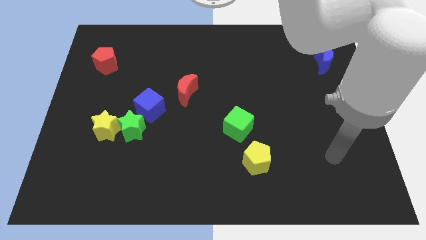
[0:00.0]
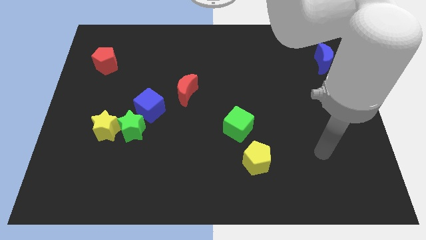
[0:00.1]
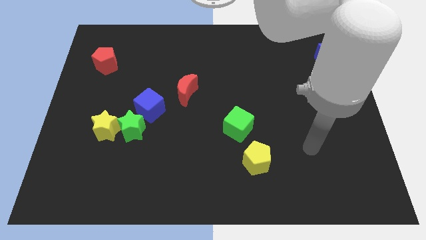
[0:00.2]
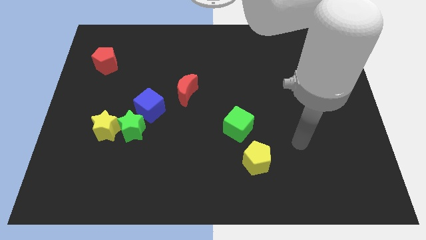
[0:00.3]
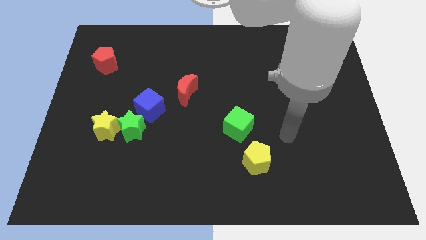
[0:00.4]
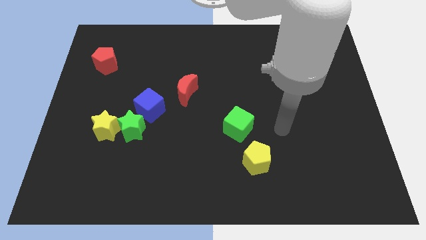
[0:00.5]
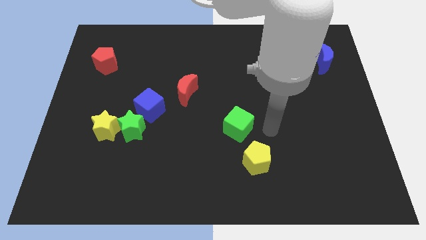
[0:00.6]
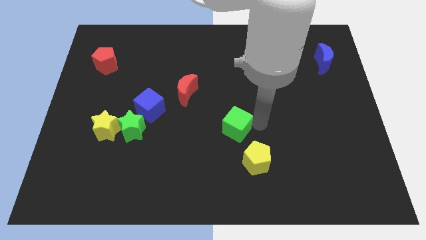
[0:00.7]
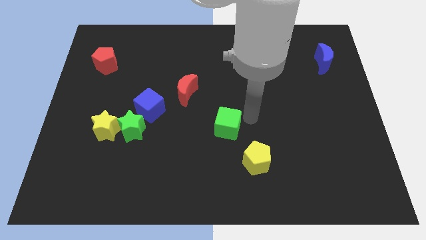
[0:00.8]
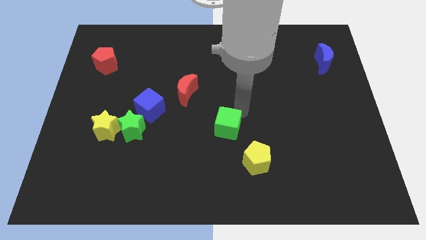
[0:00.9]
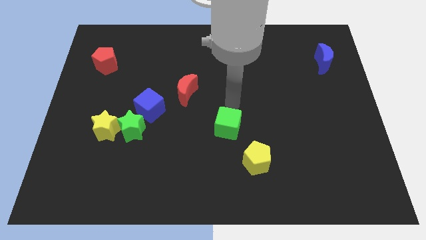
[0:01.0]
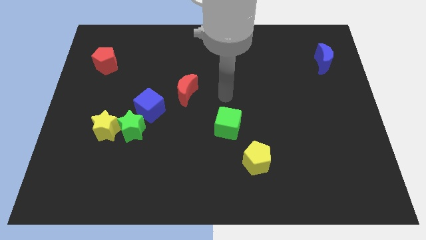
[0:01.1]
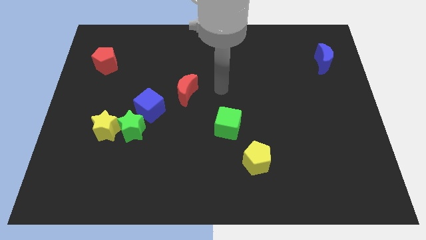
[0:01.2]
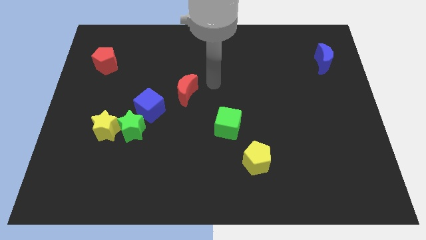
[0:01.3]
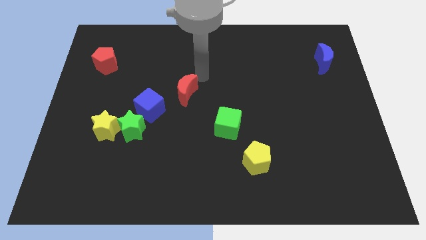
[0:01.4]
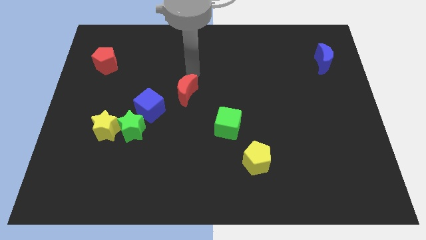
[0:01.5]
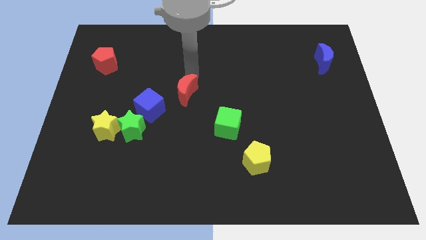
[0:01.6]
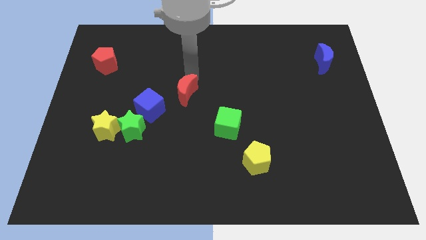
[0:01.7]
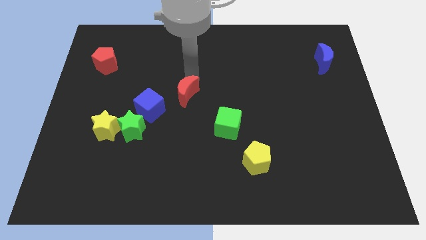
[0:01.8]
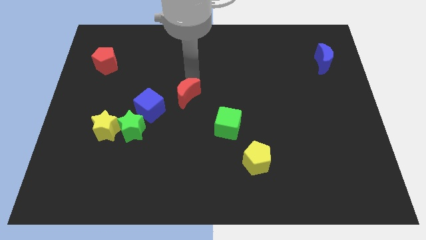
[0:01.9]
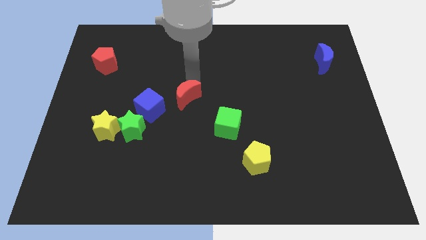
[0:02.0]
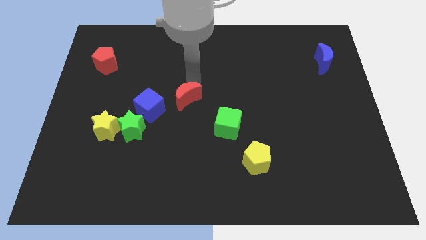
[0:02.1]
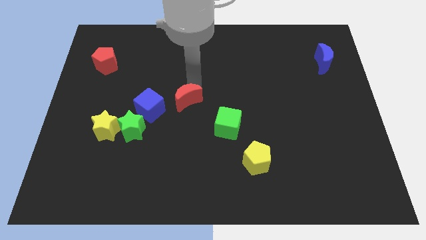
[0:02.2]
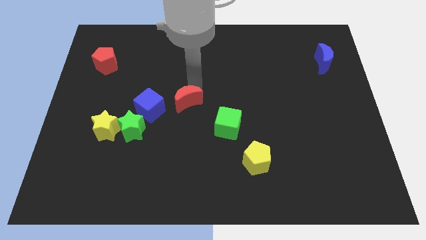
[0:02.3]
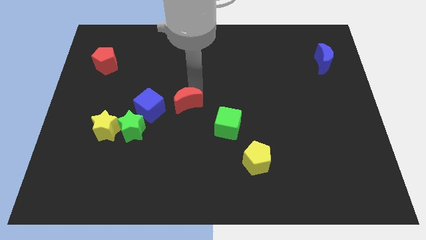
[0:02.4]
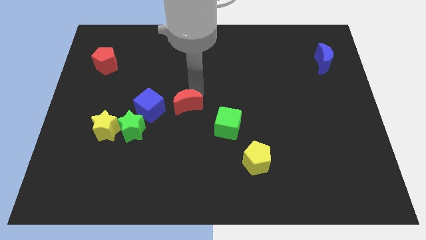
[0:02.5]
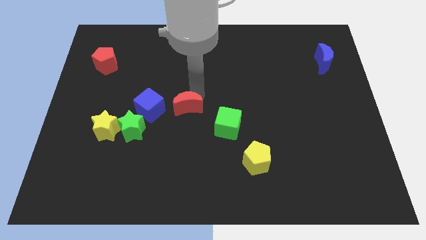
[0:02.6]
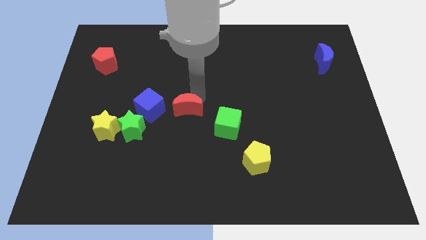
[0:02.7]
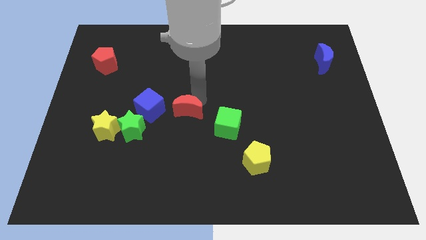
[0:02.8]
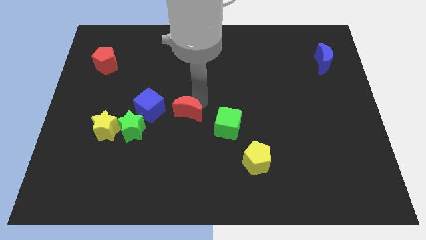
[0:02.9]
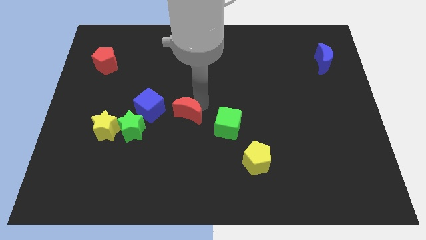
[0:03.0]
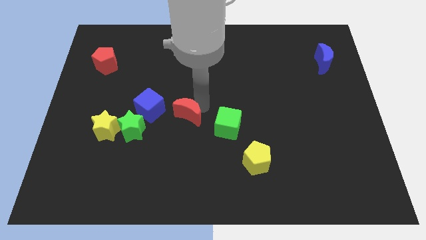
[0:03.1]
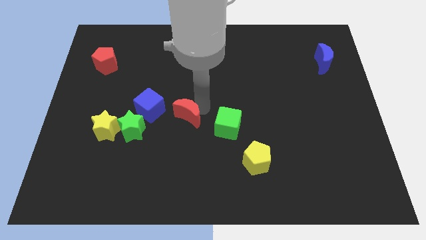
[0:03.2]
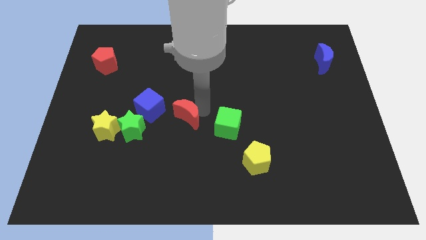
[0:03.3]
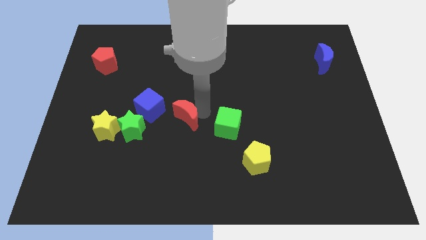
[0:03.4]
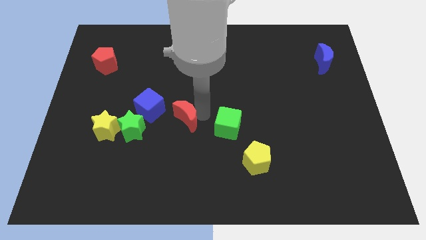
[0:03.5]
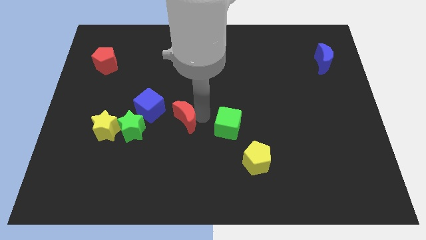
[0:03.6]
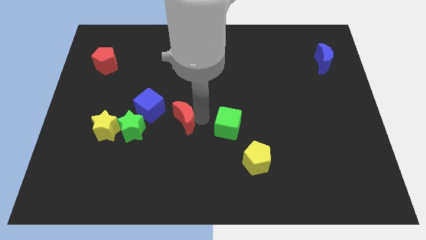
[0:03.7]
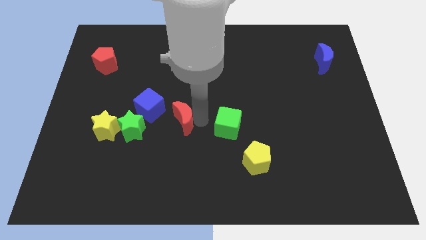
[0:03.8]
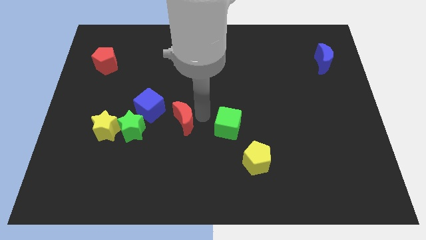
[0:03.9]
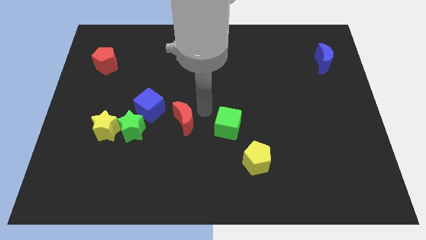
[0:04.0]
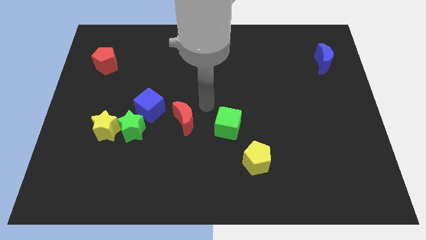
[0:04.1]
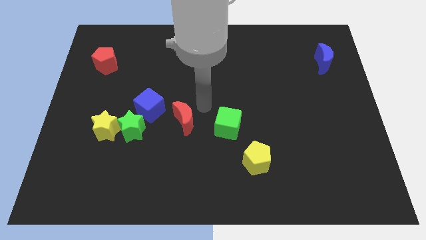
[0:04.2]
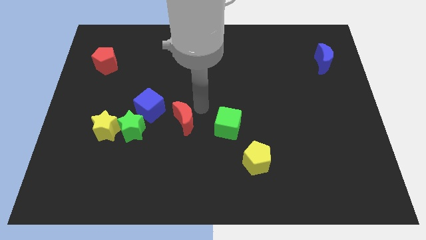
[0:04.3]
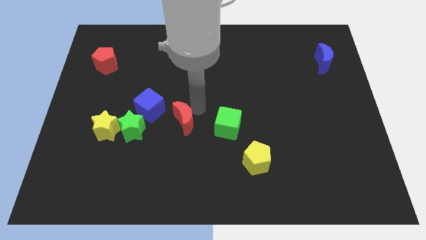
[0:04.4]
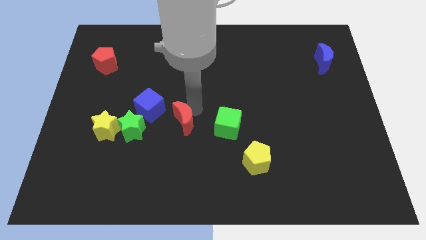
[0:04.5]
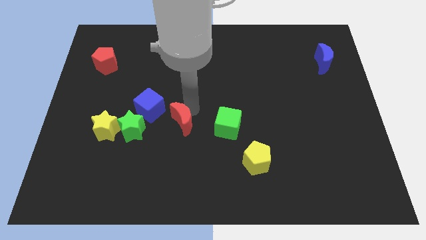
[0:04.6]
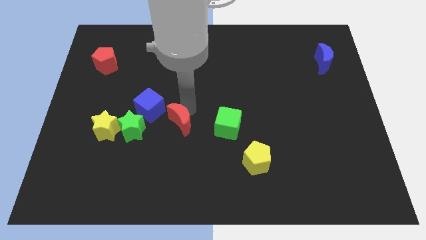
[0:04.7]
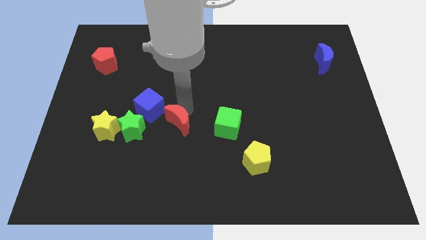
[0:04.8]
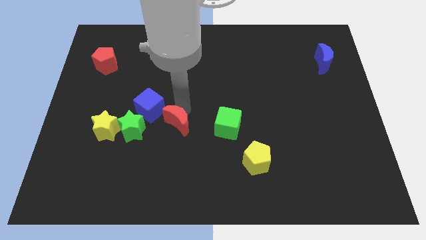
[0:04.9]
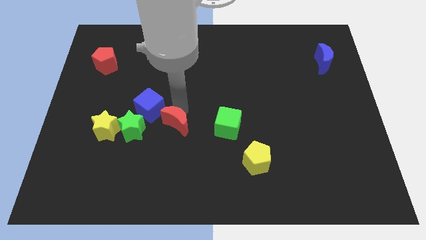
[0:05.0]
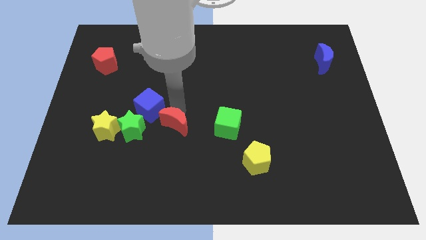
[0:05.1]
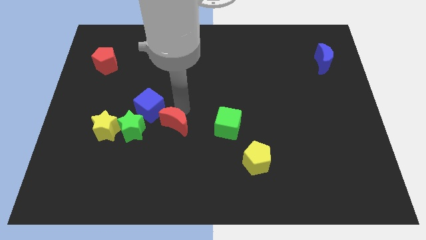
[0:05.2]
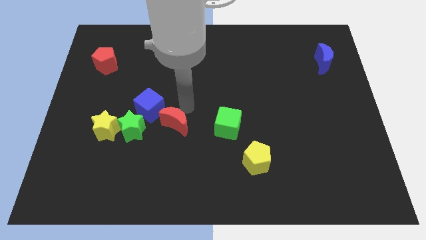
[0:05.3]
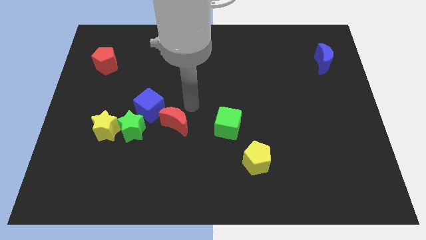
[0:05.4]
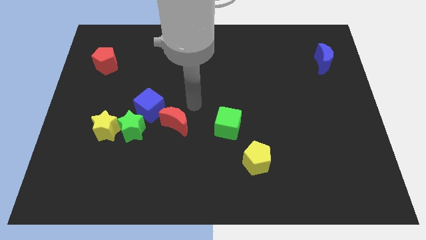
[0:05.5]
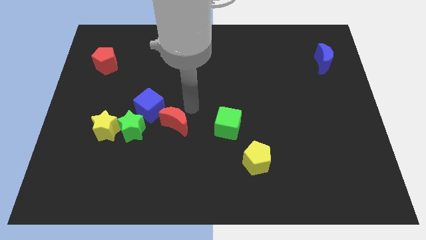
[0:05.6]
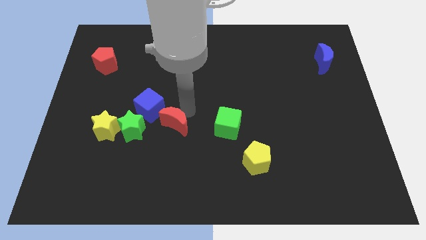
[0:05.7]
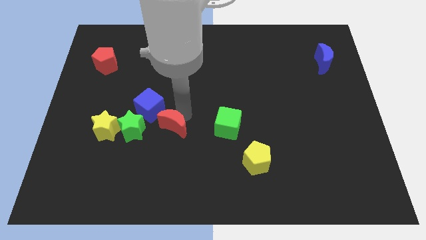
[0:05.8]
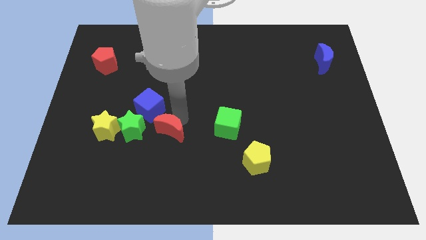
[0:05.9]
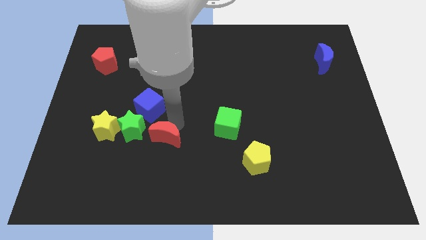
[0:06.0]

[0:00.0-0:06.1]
put the red moon to the bottom right of the green star

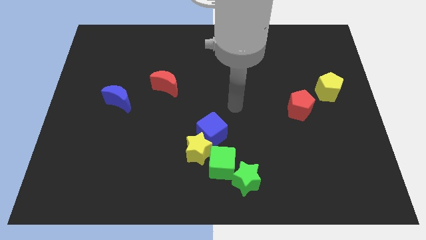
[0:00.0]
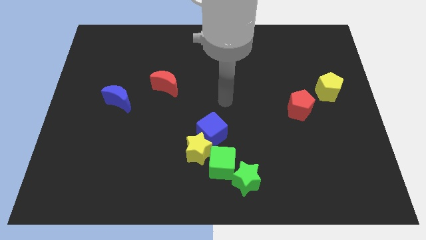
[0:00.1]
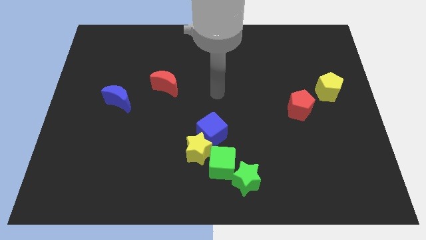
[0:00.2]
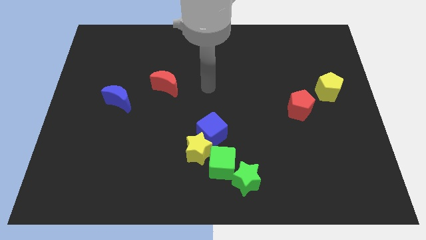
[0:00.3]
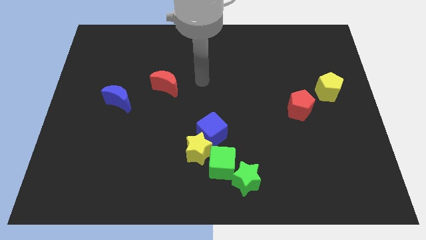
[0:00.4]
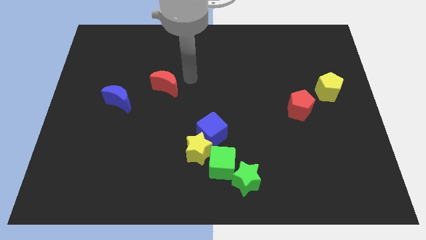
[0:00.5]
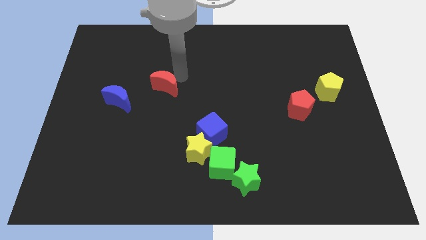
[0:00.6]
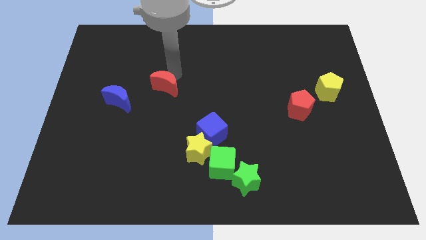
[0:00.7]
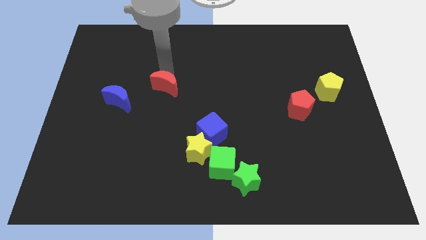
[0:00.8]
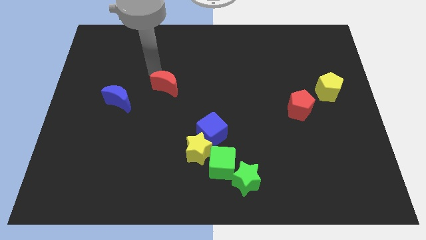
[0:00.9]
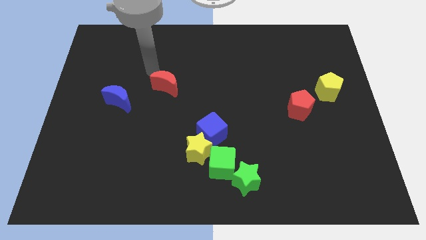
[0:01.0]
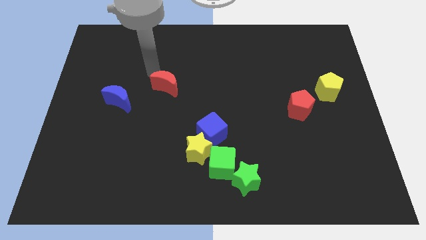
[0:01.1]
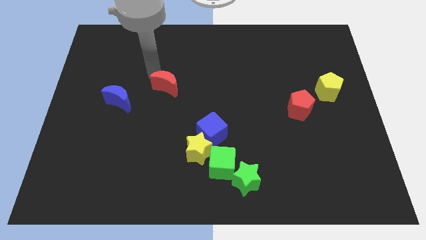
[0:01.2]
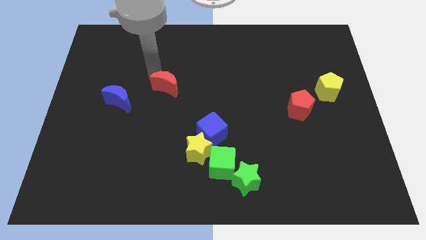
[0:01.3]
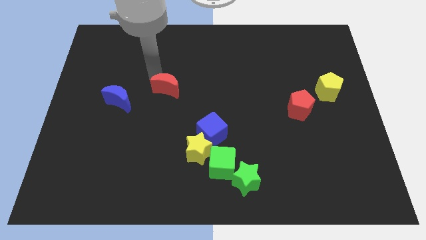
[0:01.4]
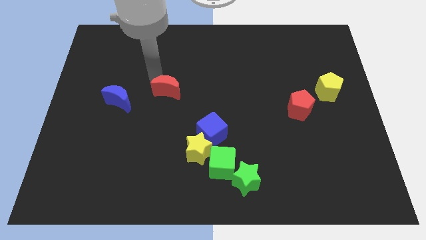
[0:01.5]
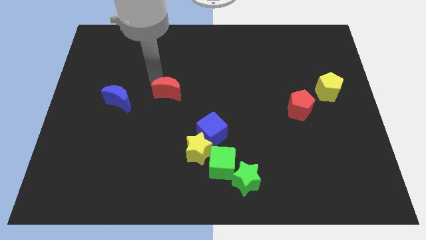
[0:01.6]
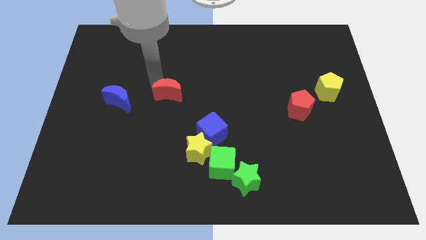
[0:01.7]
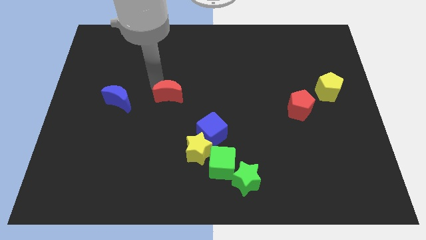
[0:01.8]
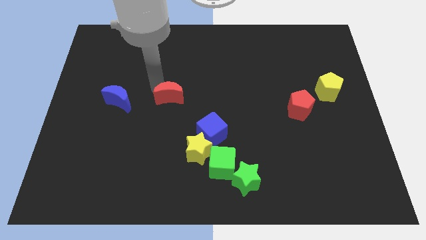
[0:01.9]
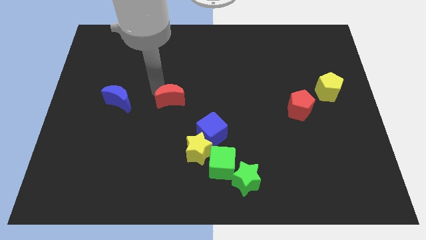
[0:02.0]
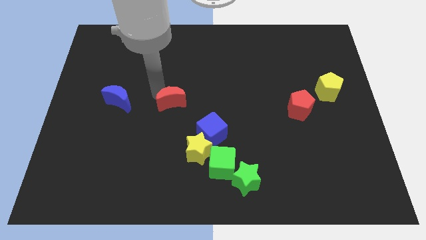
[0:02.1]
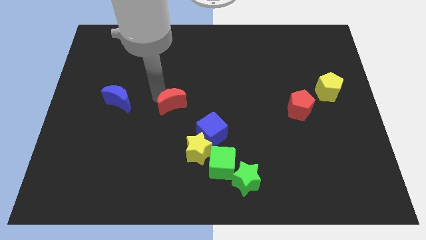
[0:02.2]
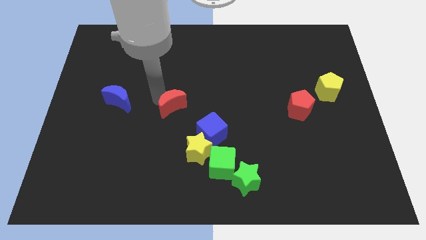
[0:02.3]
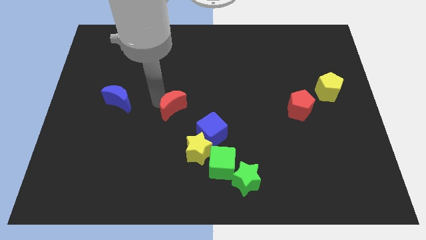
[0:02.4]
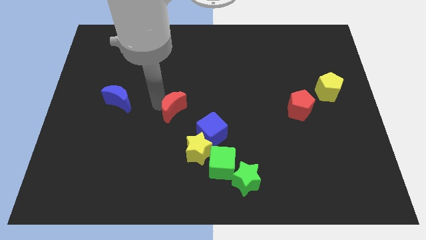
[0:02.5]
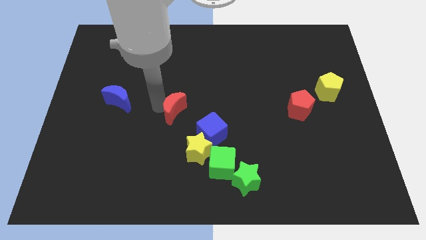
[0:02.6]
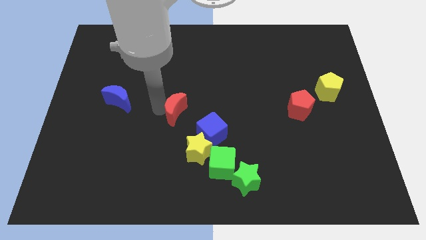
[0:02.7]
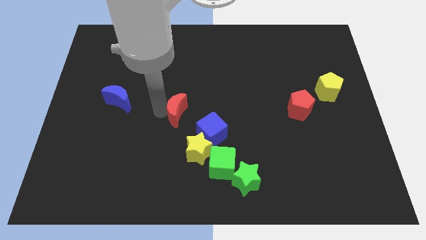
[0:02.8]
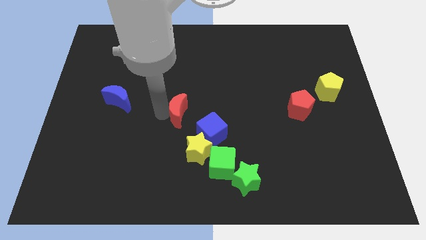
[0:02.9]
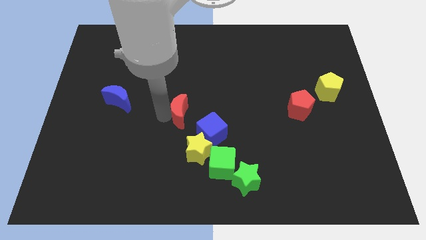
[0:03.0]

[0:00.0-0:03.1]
push the red moon above the yellow star
